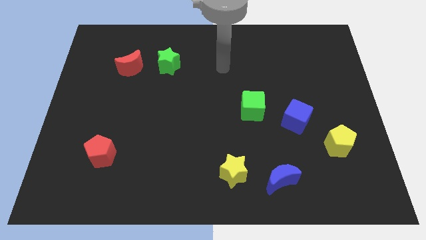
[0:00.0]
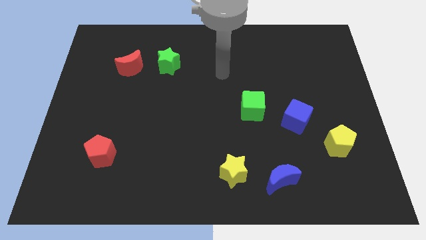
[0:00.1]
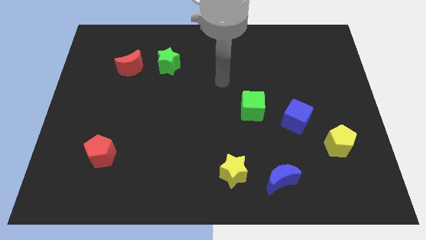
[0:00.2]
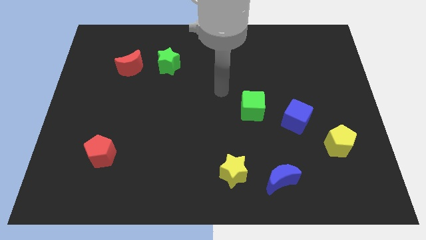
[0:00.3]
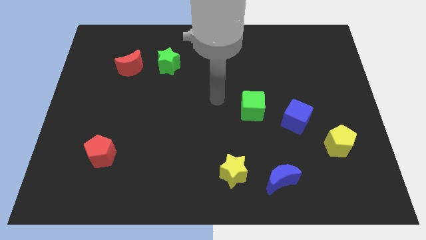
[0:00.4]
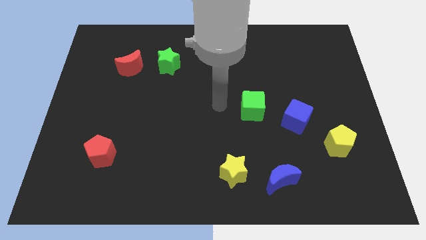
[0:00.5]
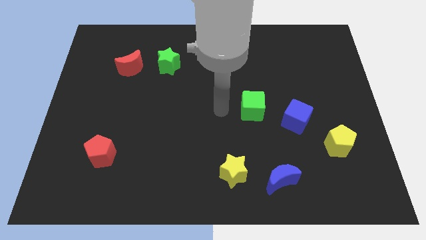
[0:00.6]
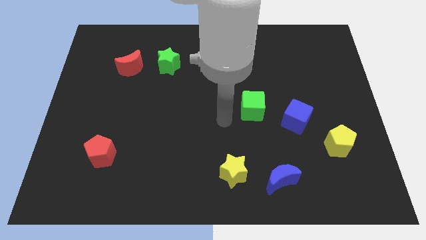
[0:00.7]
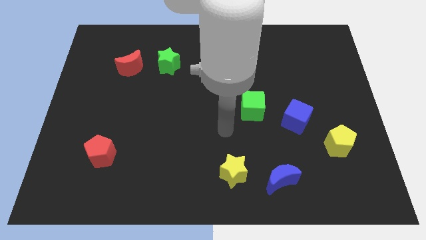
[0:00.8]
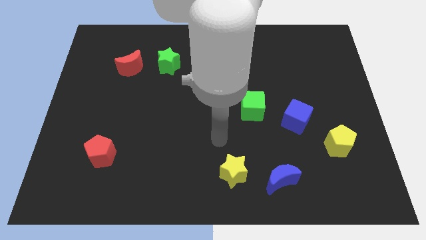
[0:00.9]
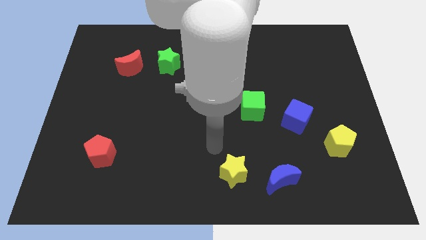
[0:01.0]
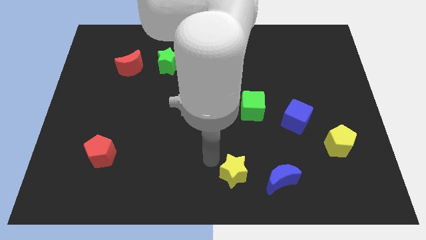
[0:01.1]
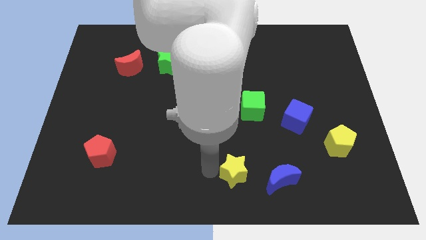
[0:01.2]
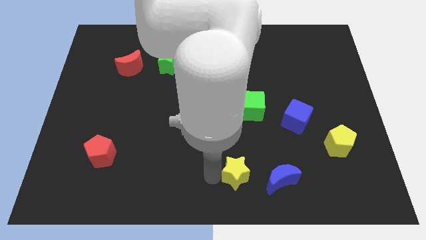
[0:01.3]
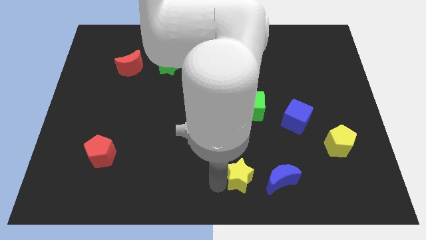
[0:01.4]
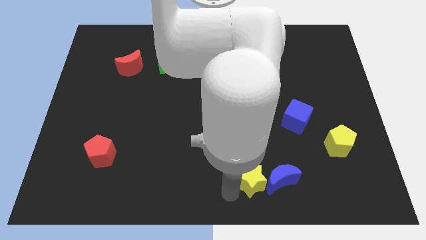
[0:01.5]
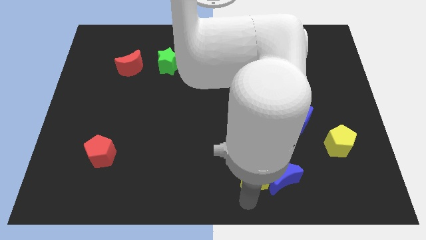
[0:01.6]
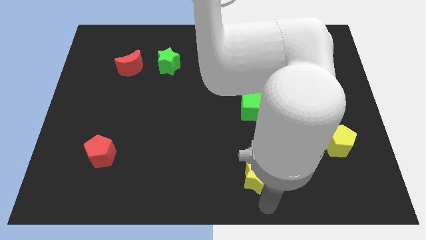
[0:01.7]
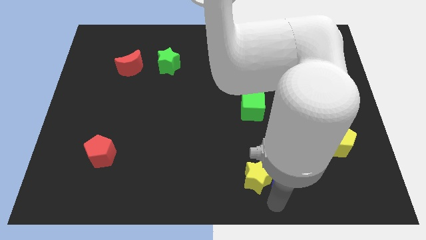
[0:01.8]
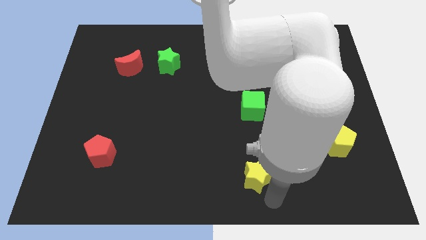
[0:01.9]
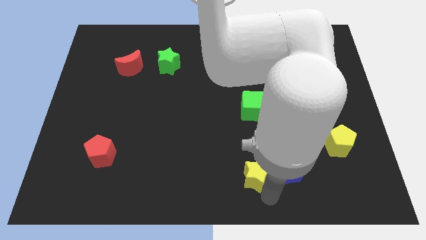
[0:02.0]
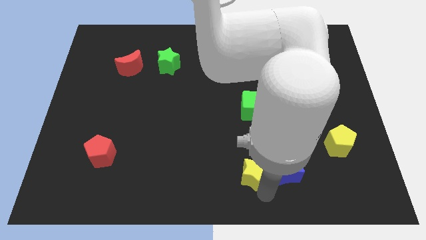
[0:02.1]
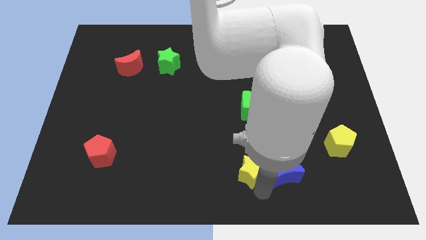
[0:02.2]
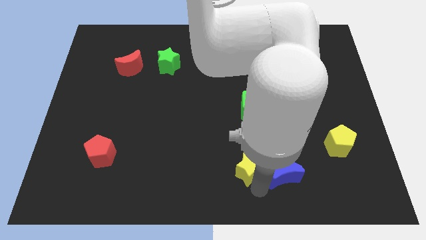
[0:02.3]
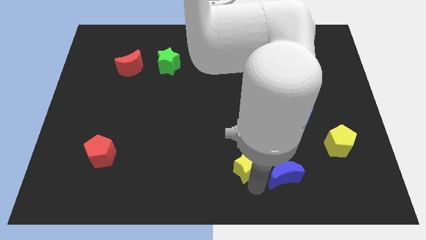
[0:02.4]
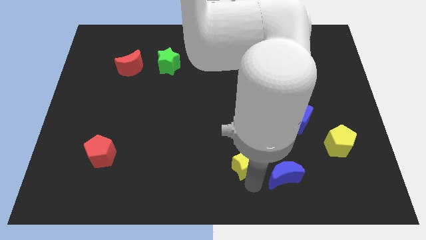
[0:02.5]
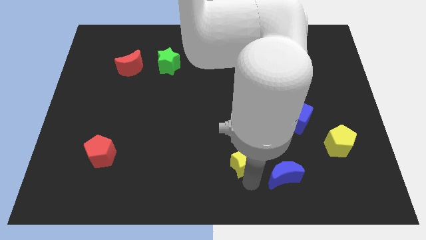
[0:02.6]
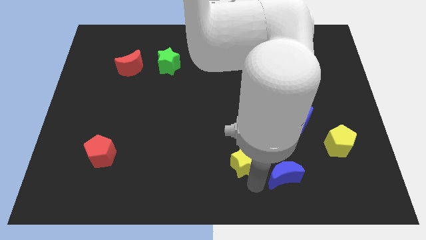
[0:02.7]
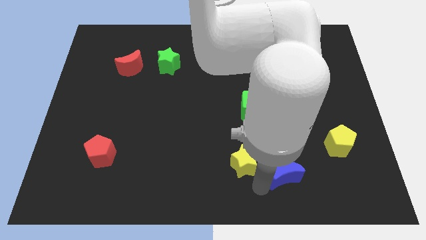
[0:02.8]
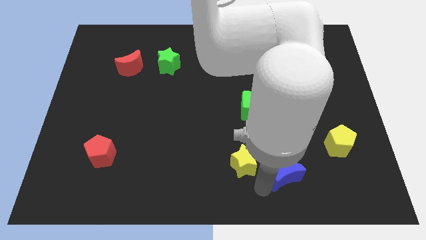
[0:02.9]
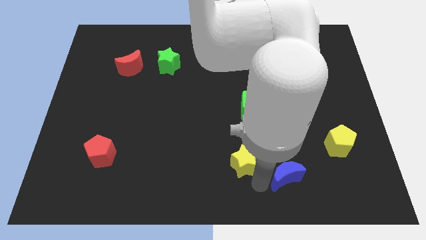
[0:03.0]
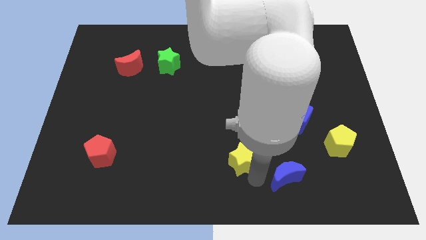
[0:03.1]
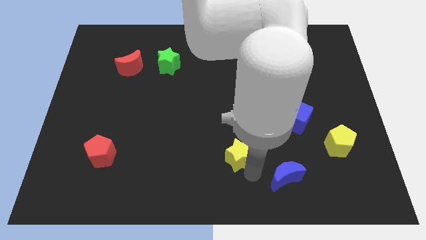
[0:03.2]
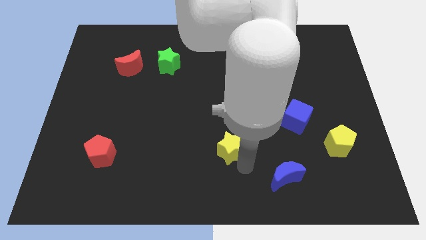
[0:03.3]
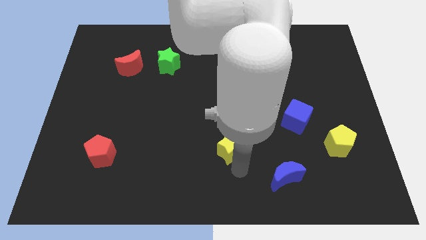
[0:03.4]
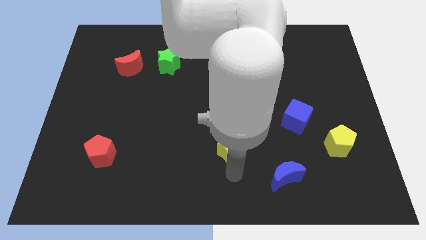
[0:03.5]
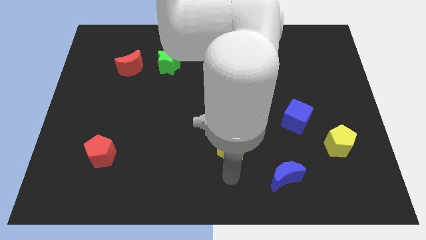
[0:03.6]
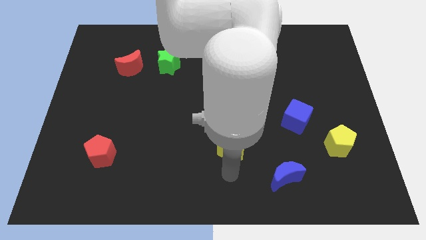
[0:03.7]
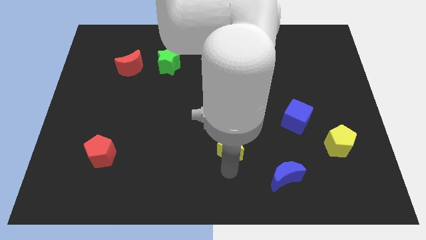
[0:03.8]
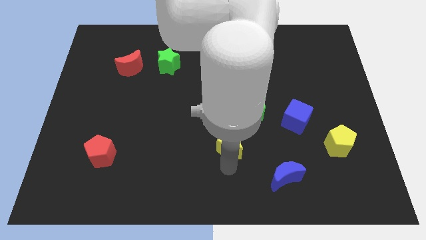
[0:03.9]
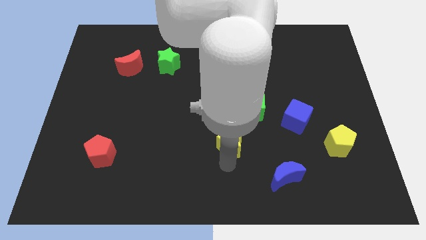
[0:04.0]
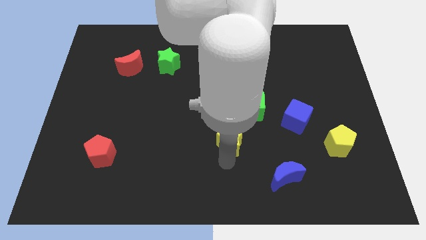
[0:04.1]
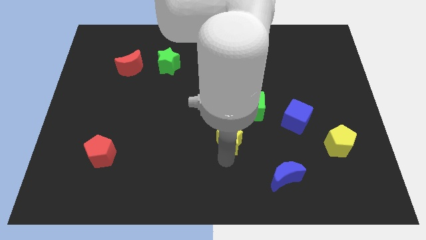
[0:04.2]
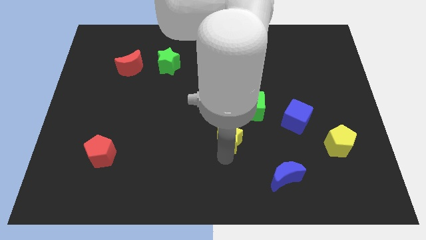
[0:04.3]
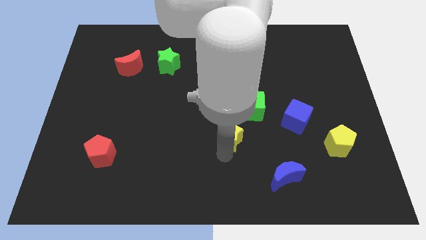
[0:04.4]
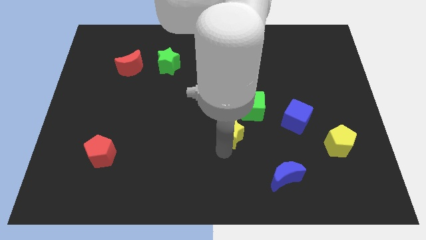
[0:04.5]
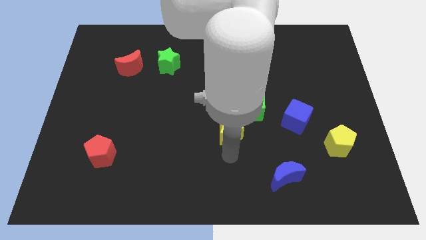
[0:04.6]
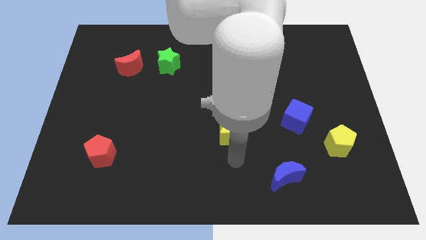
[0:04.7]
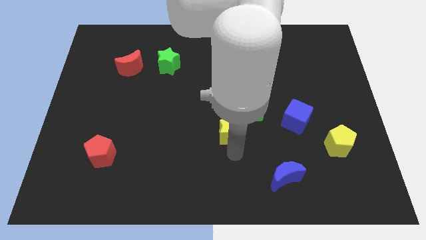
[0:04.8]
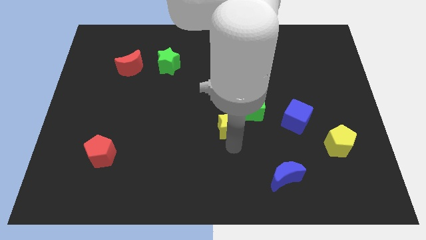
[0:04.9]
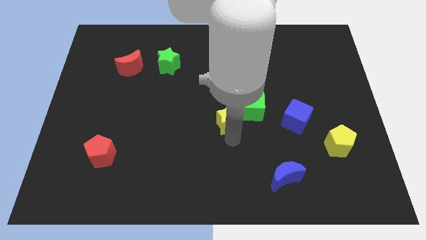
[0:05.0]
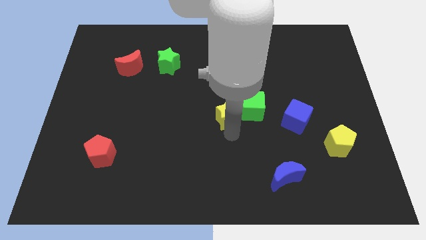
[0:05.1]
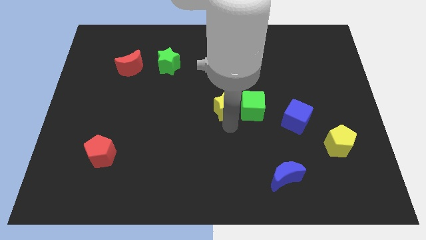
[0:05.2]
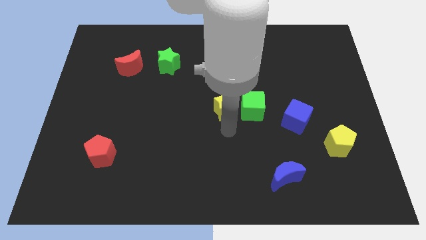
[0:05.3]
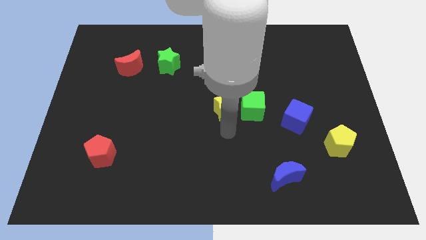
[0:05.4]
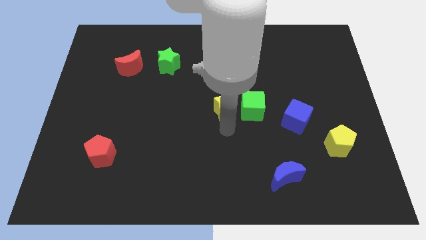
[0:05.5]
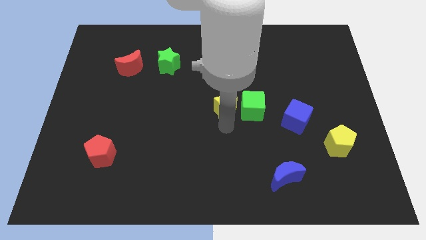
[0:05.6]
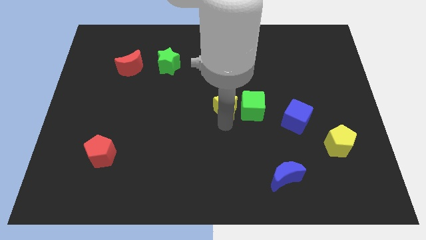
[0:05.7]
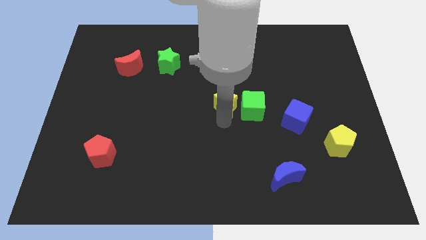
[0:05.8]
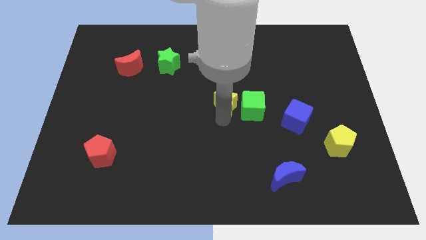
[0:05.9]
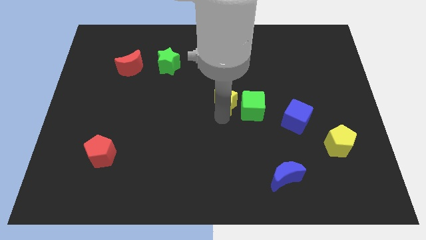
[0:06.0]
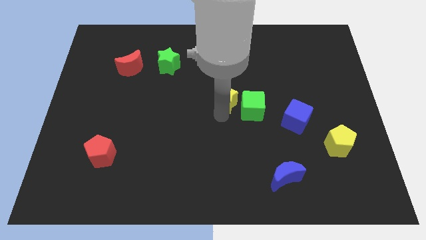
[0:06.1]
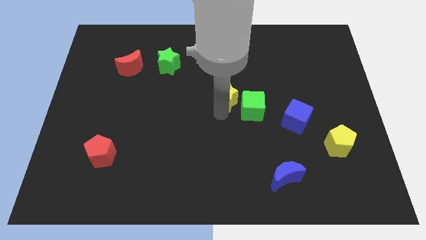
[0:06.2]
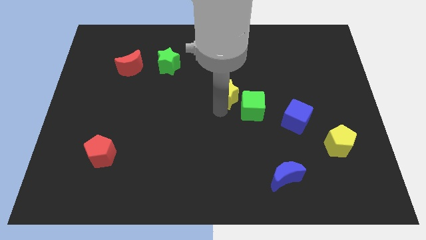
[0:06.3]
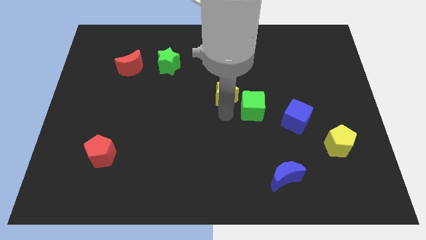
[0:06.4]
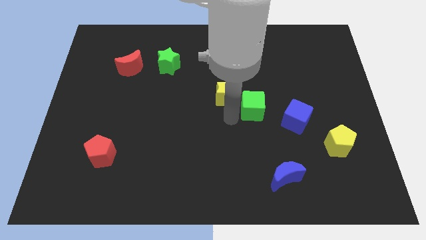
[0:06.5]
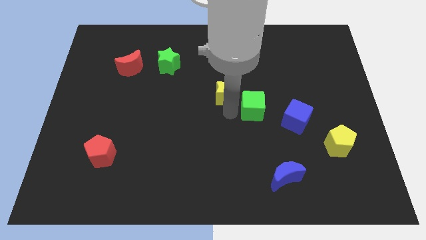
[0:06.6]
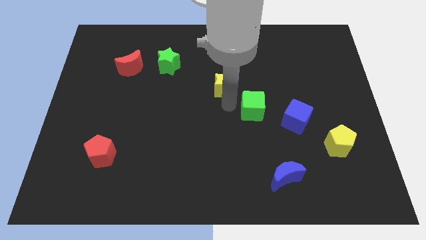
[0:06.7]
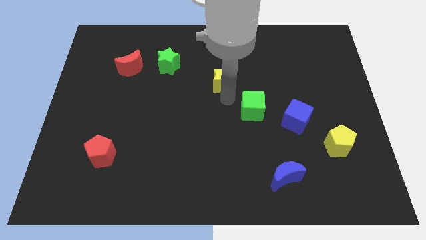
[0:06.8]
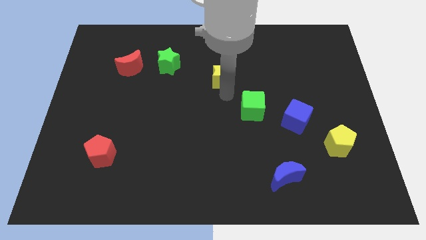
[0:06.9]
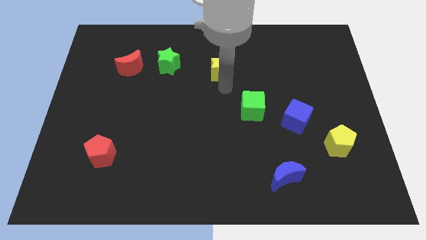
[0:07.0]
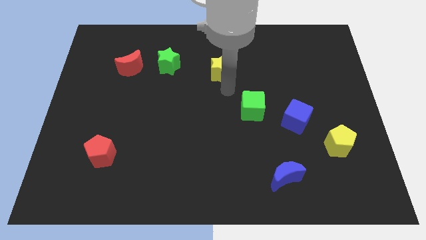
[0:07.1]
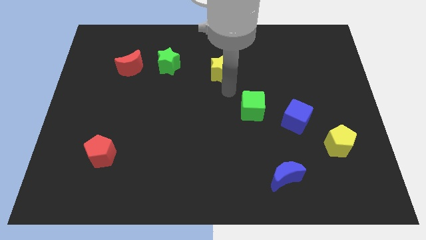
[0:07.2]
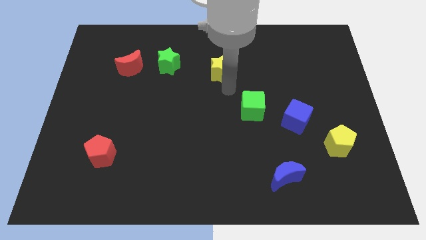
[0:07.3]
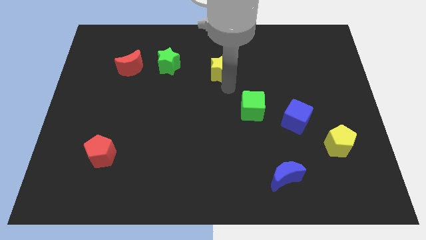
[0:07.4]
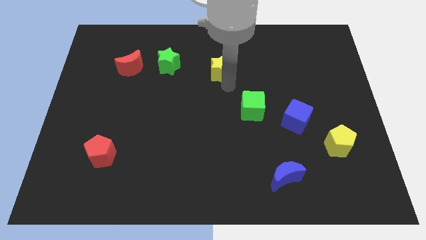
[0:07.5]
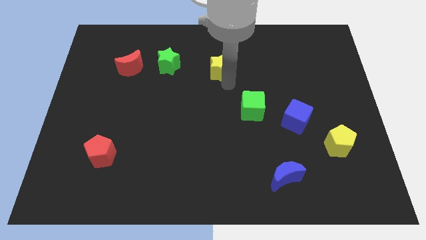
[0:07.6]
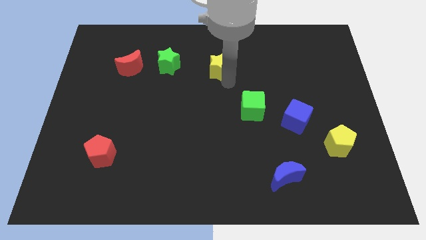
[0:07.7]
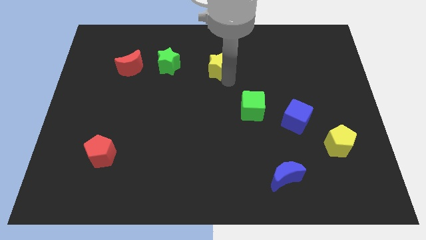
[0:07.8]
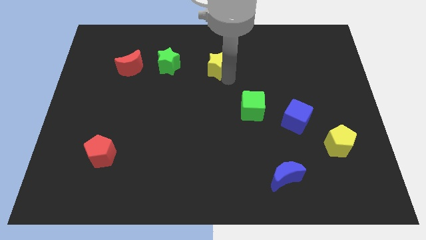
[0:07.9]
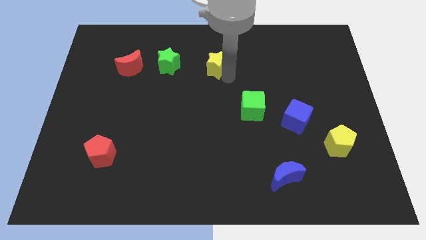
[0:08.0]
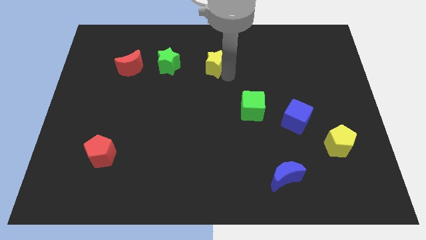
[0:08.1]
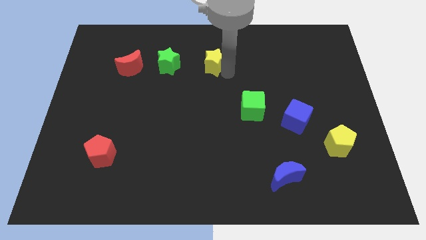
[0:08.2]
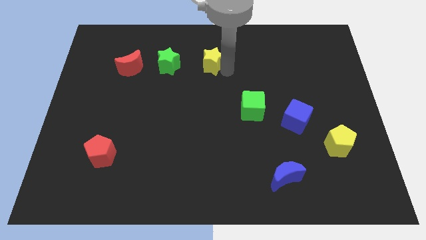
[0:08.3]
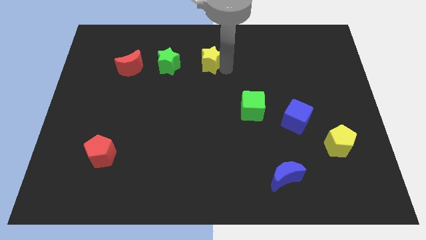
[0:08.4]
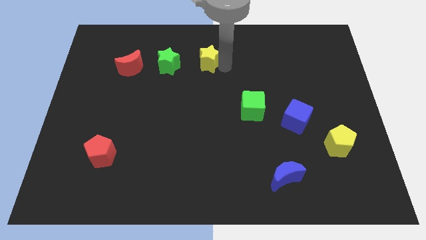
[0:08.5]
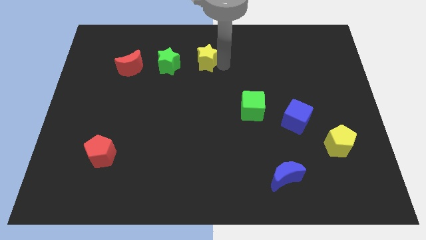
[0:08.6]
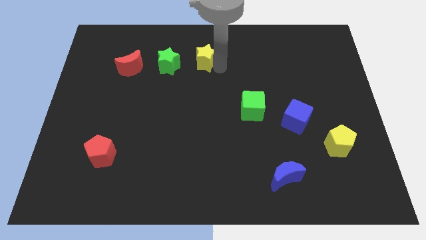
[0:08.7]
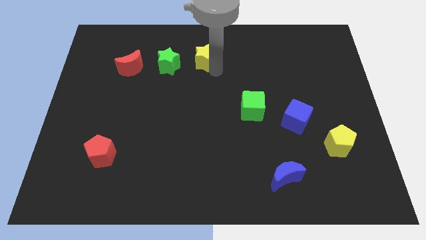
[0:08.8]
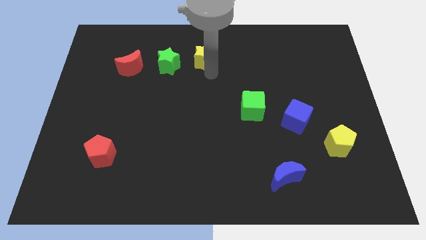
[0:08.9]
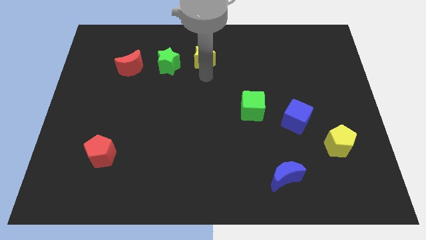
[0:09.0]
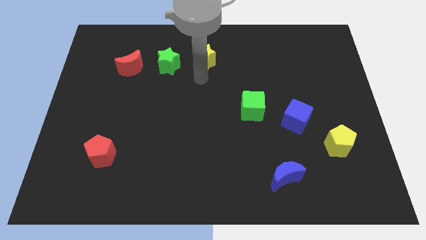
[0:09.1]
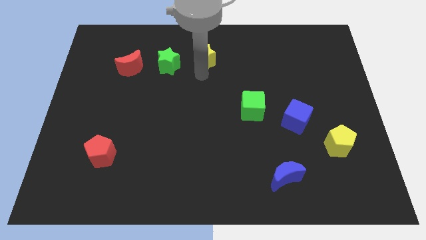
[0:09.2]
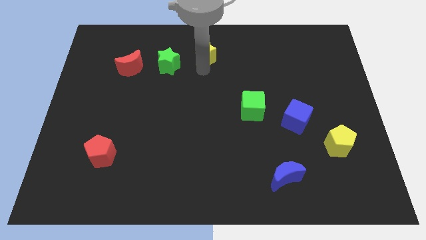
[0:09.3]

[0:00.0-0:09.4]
put the yellow star to the top
